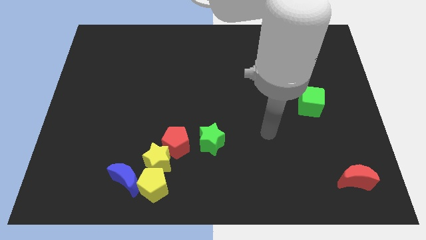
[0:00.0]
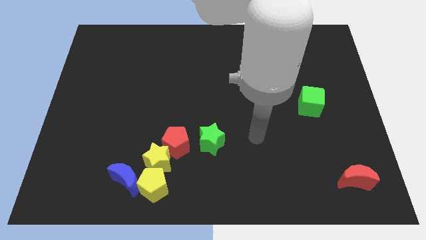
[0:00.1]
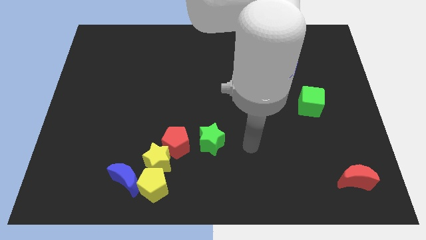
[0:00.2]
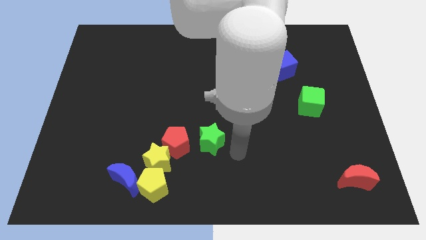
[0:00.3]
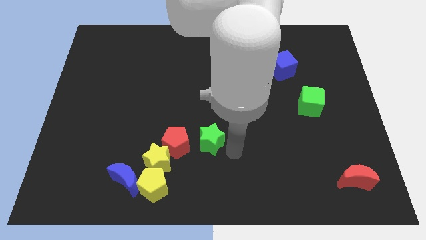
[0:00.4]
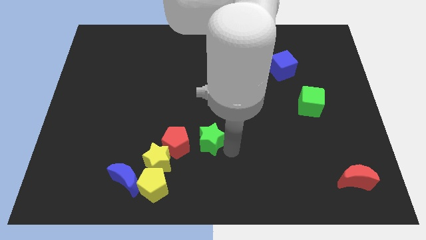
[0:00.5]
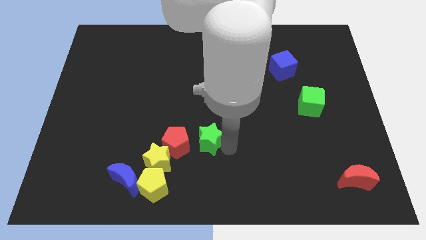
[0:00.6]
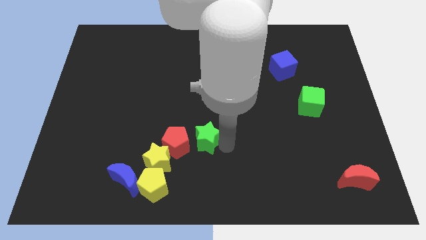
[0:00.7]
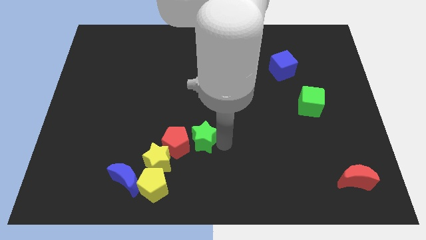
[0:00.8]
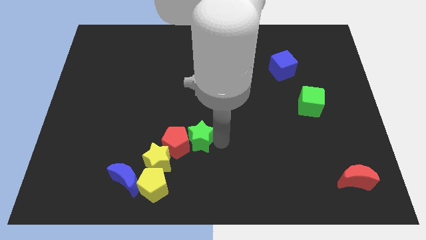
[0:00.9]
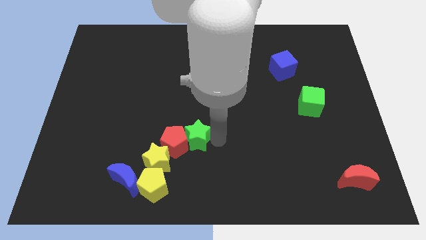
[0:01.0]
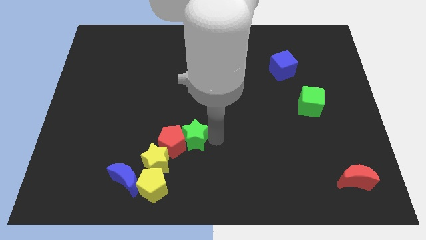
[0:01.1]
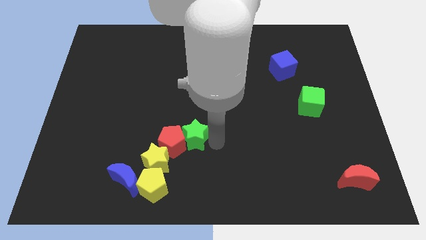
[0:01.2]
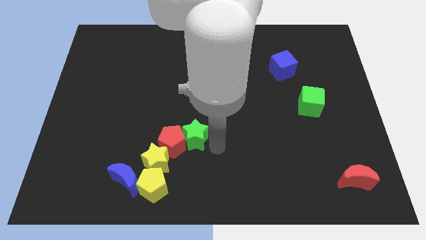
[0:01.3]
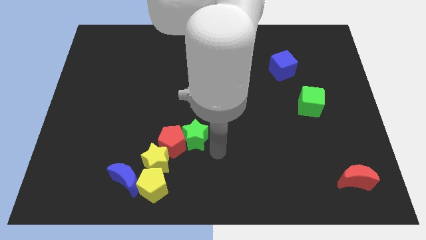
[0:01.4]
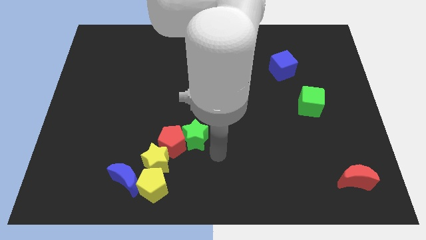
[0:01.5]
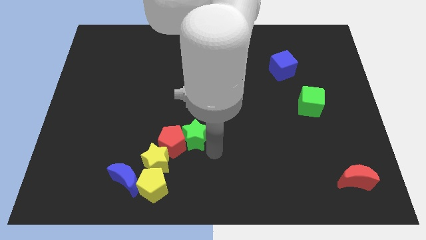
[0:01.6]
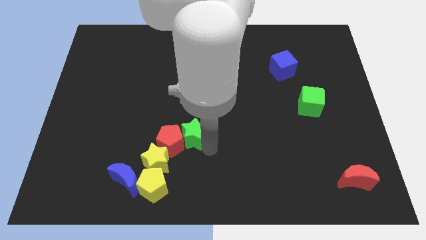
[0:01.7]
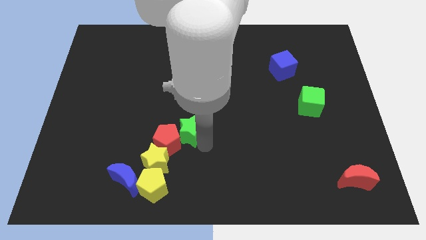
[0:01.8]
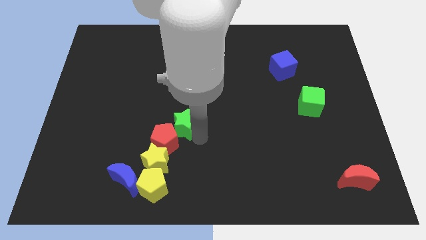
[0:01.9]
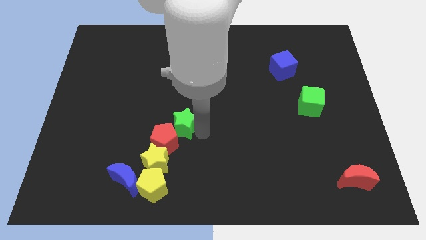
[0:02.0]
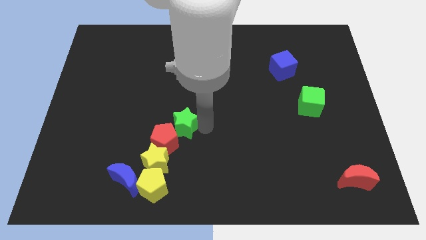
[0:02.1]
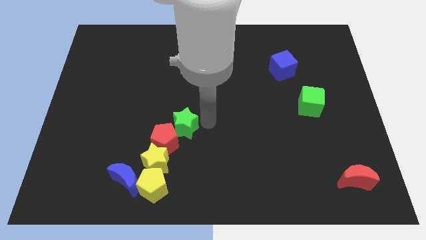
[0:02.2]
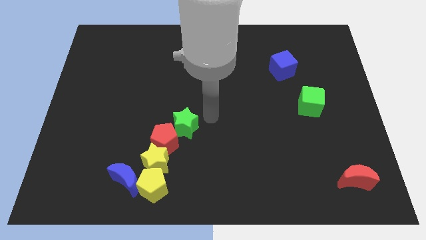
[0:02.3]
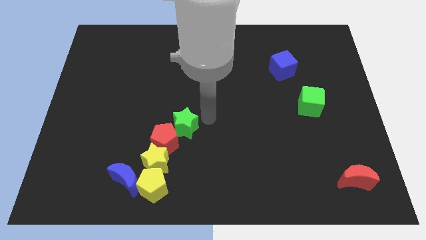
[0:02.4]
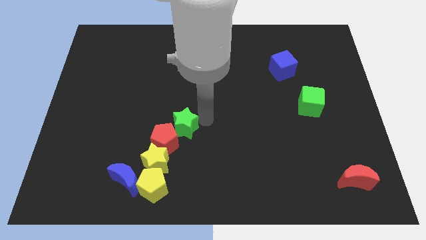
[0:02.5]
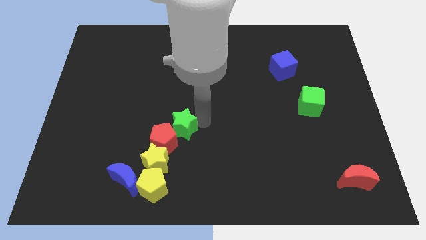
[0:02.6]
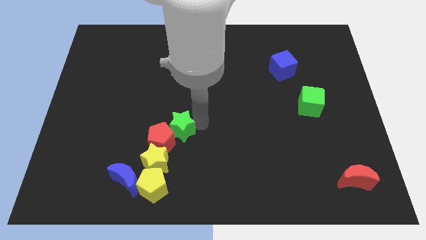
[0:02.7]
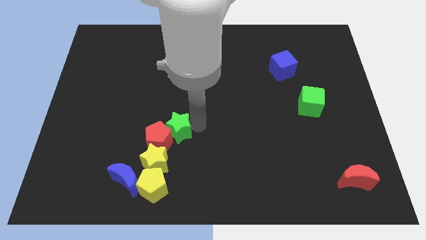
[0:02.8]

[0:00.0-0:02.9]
slightly push the green star left

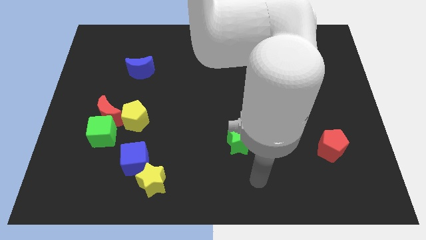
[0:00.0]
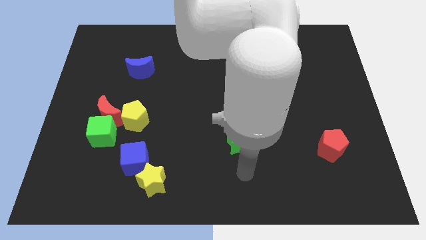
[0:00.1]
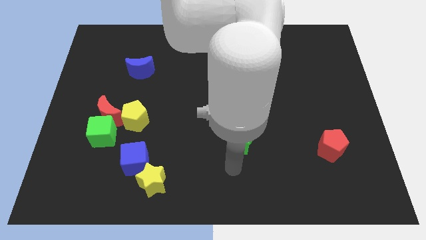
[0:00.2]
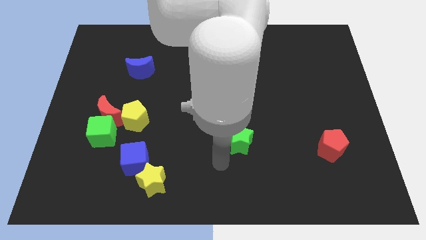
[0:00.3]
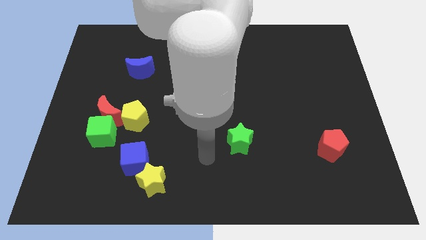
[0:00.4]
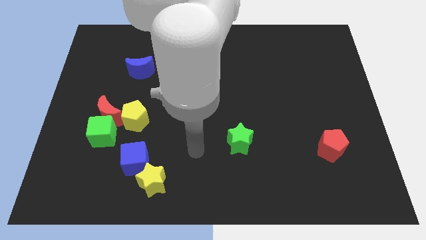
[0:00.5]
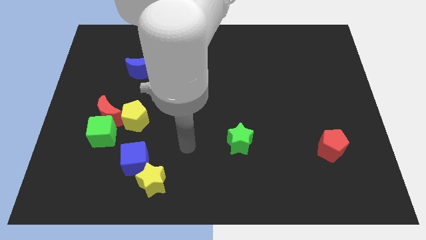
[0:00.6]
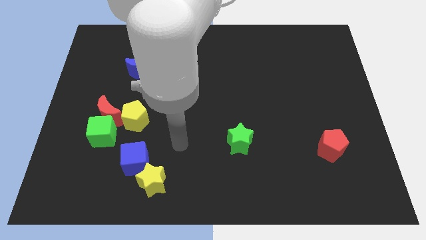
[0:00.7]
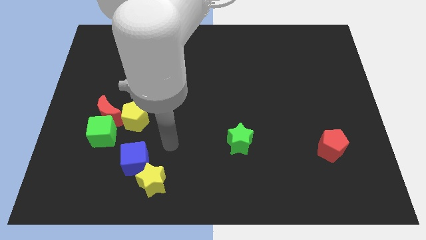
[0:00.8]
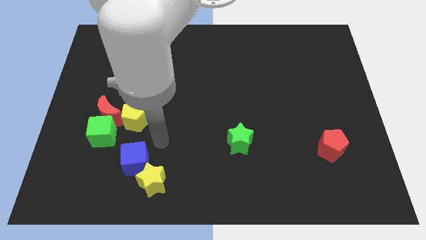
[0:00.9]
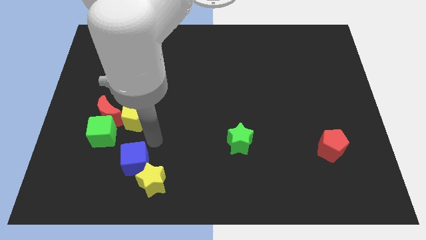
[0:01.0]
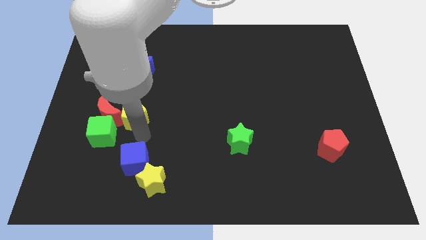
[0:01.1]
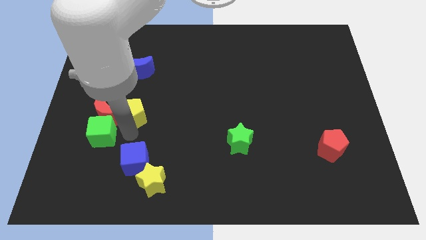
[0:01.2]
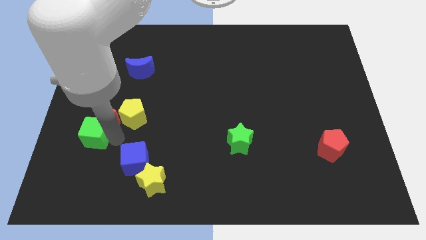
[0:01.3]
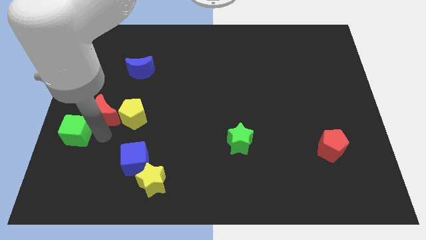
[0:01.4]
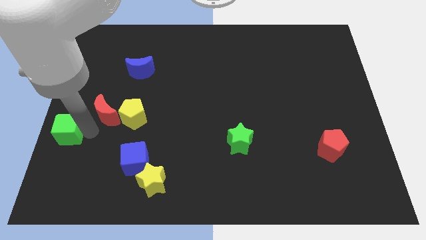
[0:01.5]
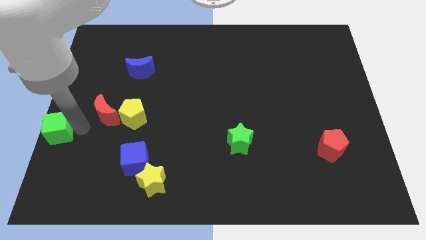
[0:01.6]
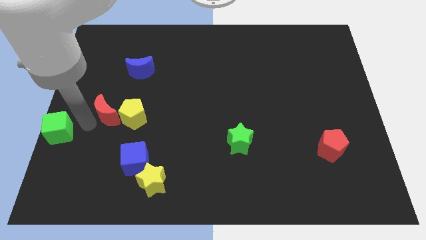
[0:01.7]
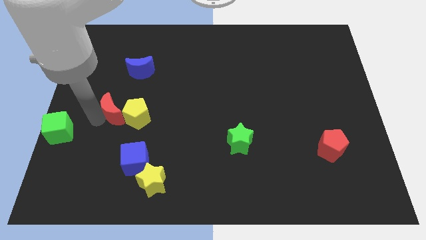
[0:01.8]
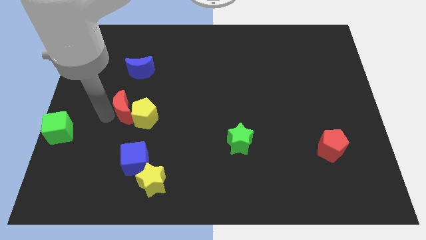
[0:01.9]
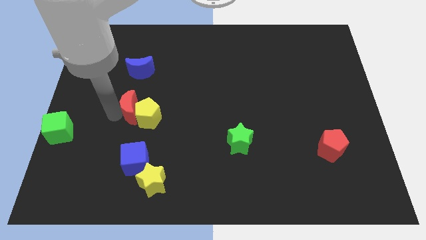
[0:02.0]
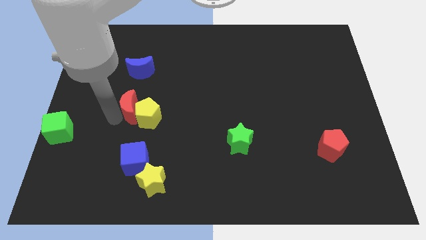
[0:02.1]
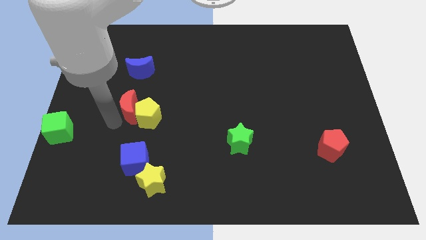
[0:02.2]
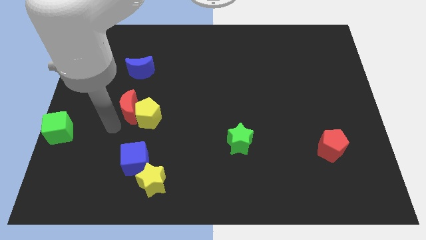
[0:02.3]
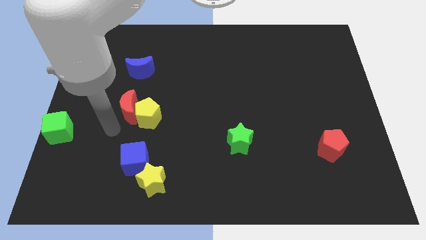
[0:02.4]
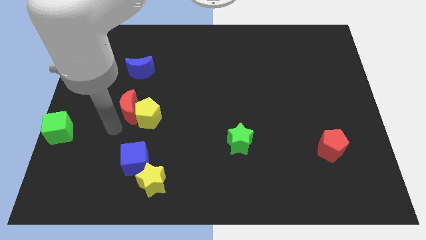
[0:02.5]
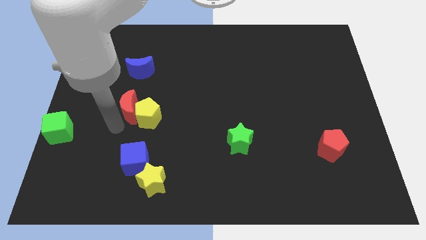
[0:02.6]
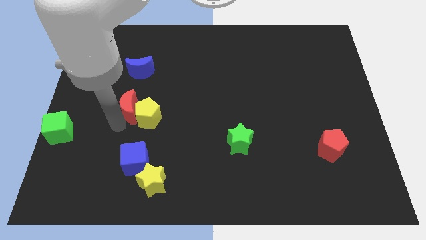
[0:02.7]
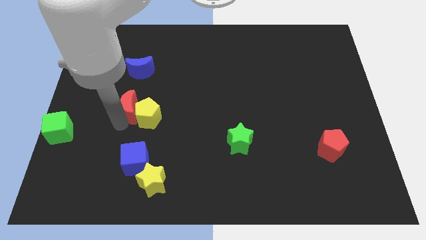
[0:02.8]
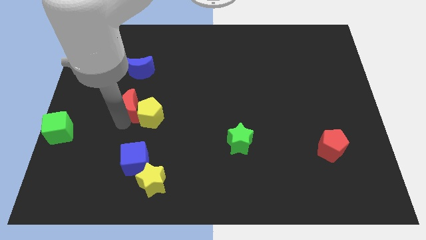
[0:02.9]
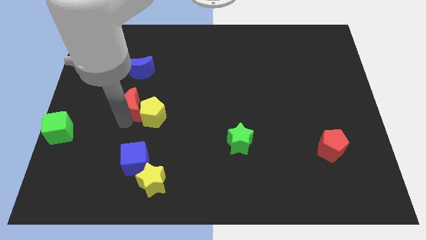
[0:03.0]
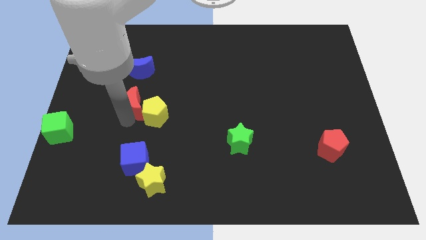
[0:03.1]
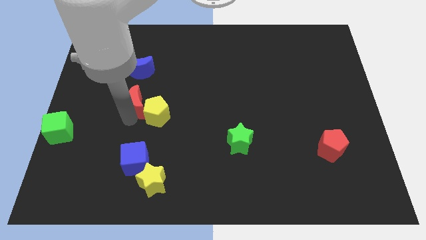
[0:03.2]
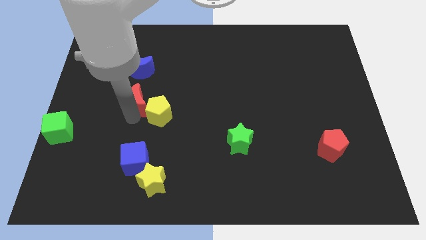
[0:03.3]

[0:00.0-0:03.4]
push the red moon a little bit upwards and right diagonally

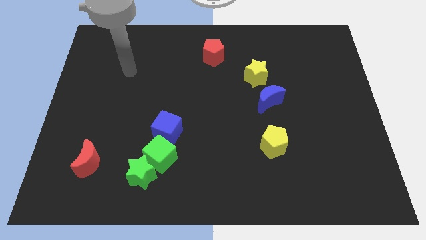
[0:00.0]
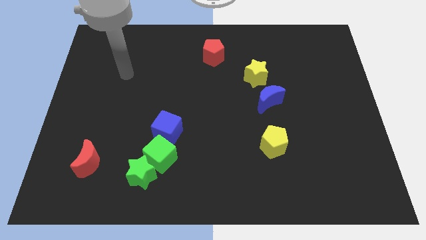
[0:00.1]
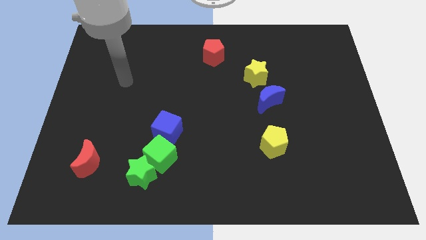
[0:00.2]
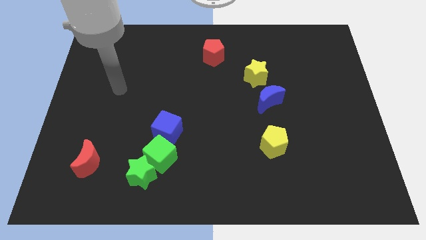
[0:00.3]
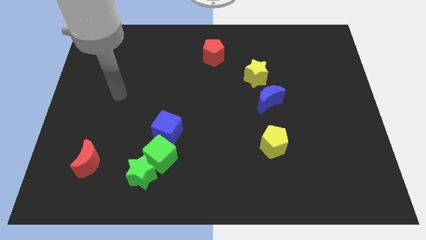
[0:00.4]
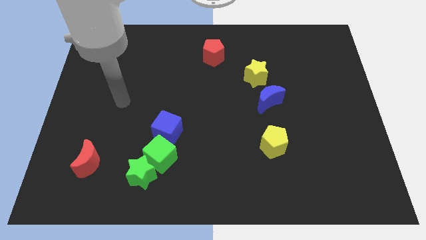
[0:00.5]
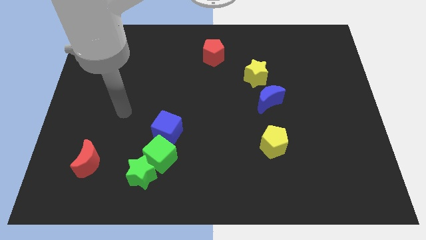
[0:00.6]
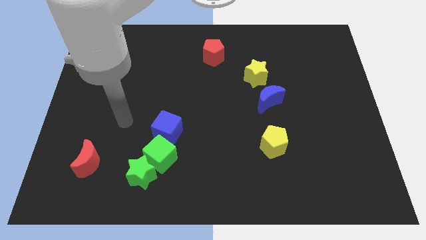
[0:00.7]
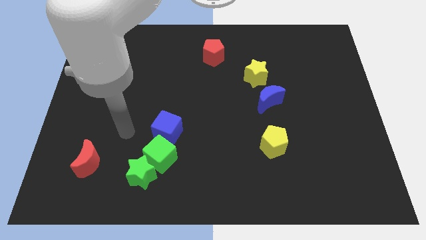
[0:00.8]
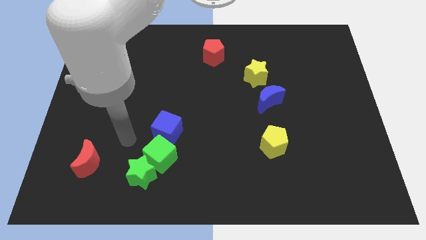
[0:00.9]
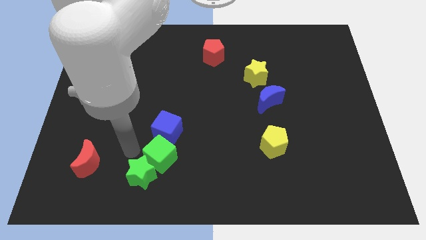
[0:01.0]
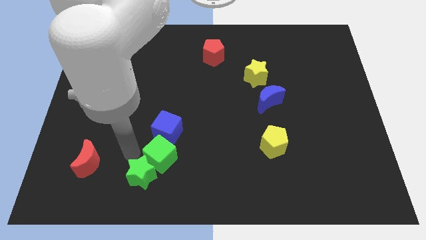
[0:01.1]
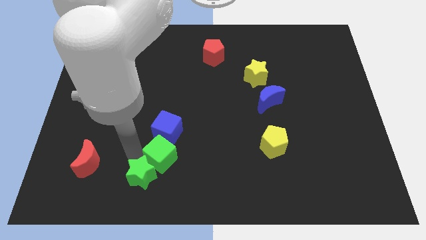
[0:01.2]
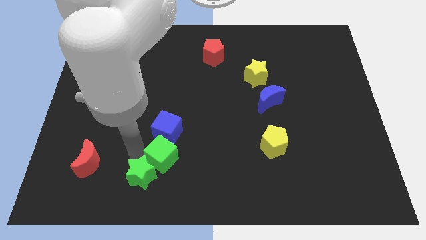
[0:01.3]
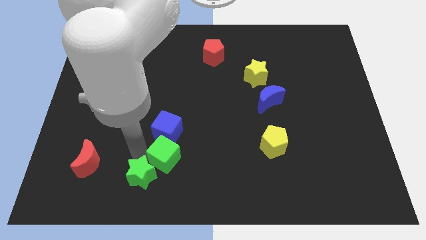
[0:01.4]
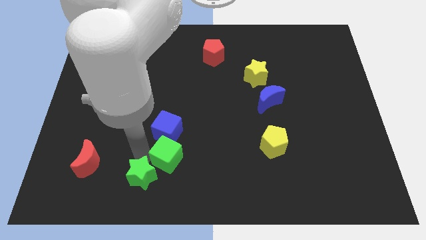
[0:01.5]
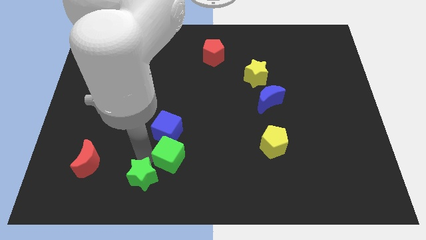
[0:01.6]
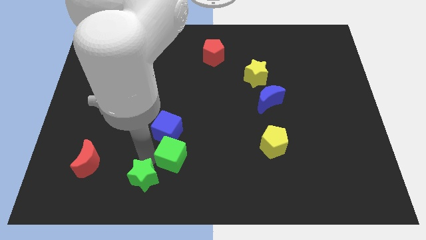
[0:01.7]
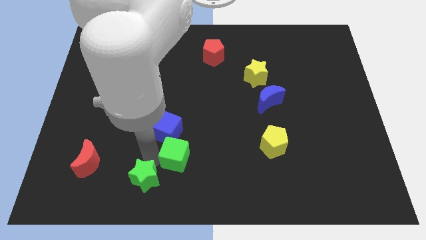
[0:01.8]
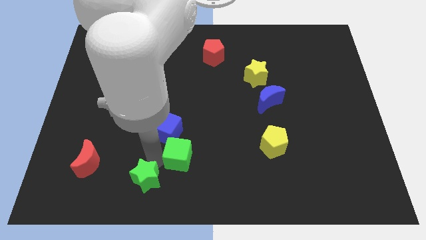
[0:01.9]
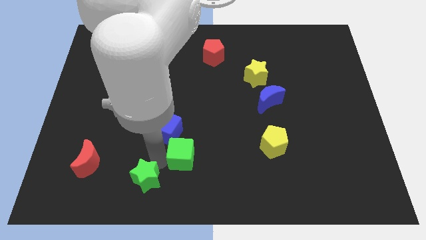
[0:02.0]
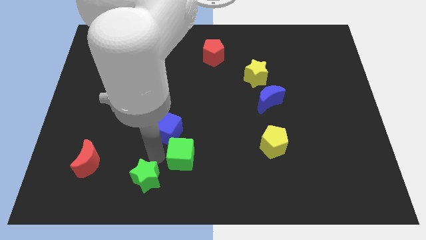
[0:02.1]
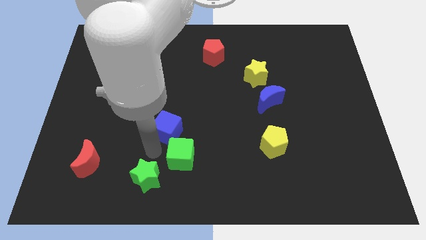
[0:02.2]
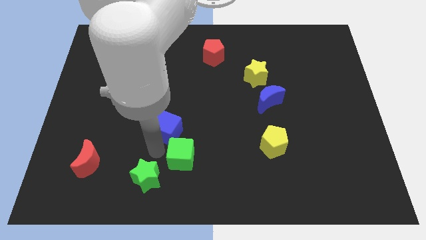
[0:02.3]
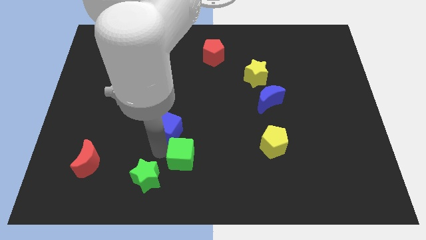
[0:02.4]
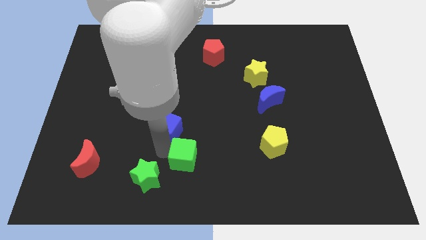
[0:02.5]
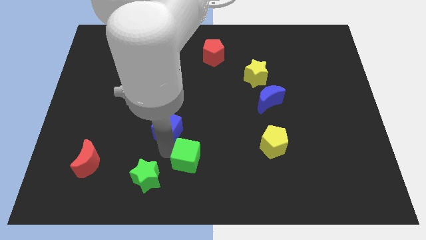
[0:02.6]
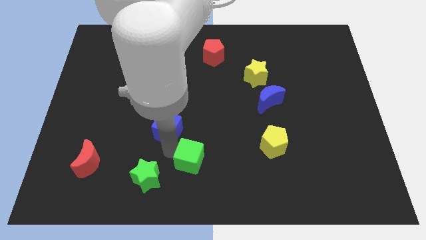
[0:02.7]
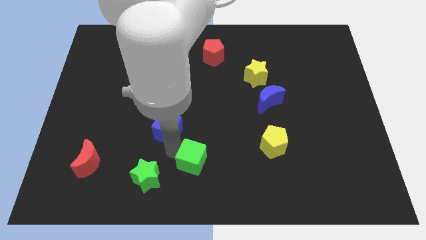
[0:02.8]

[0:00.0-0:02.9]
push the green cube a bit right
